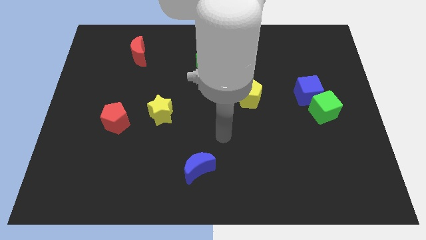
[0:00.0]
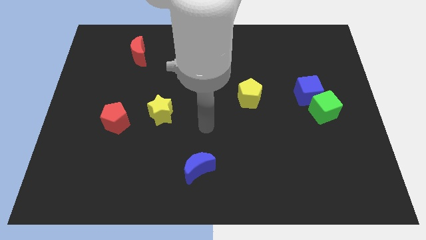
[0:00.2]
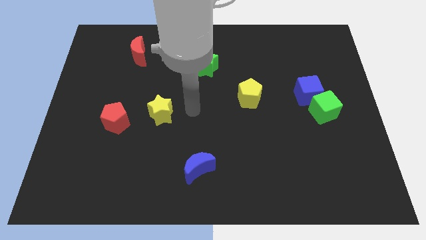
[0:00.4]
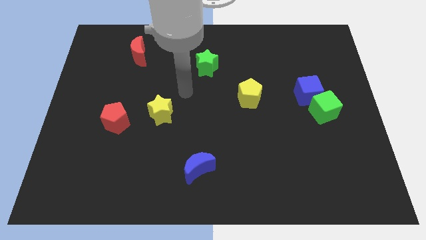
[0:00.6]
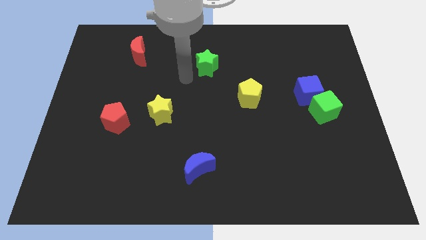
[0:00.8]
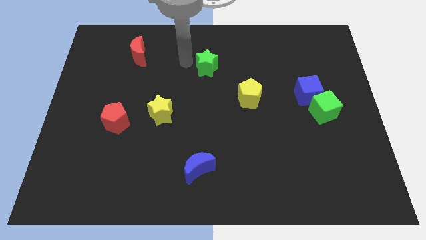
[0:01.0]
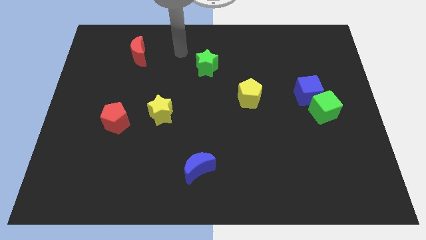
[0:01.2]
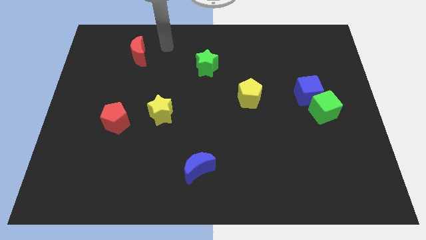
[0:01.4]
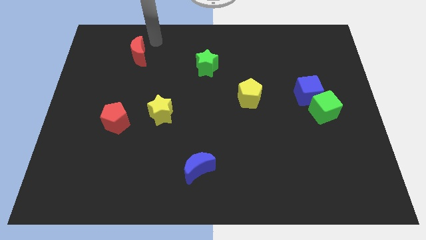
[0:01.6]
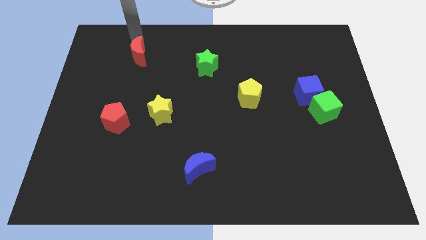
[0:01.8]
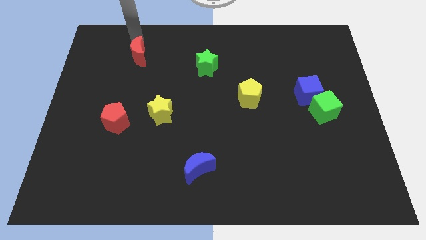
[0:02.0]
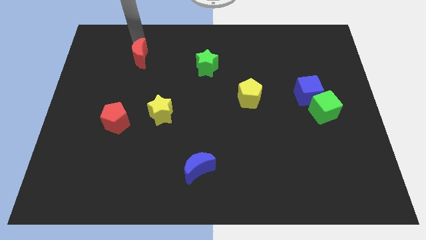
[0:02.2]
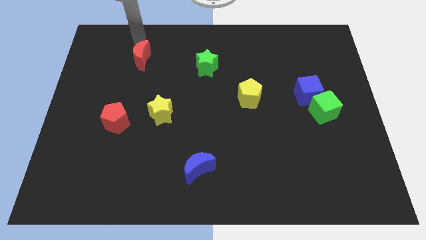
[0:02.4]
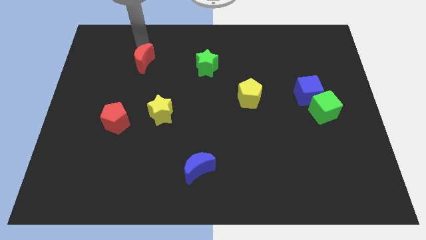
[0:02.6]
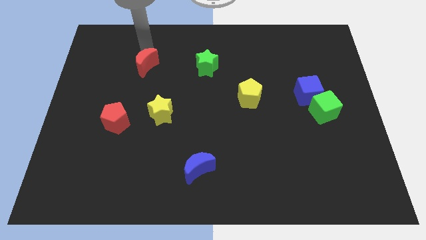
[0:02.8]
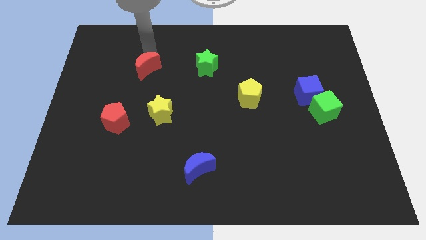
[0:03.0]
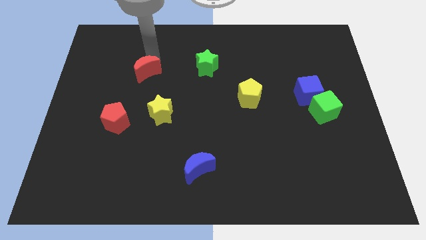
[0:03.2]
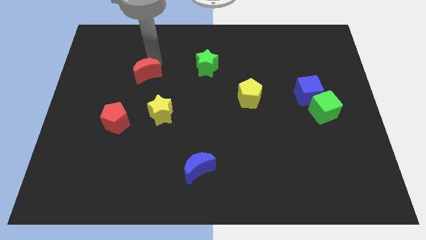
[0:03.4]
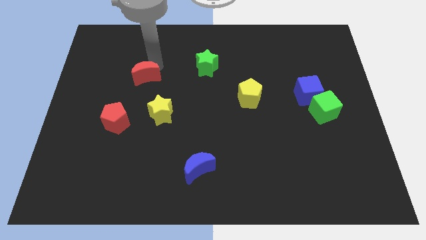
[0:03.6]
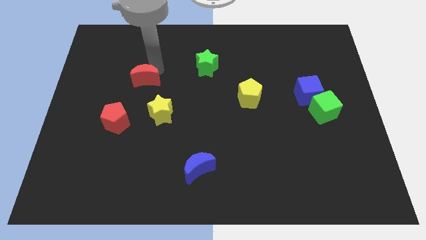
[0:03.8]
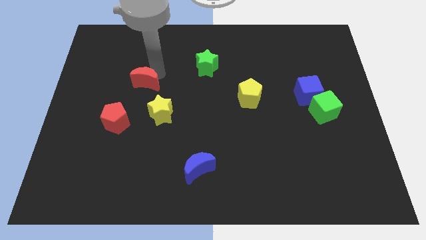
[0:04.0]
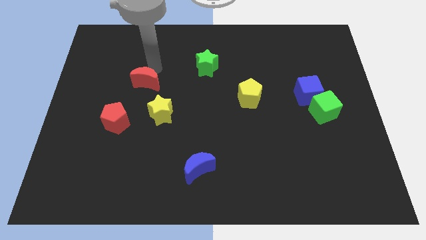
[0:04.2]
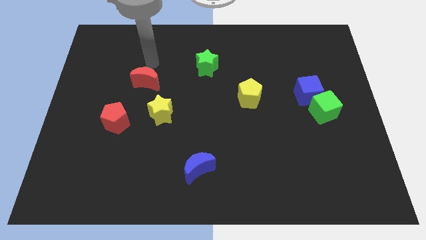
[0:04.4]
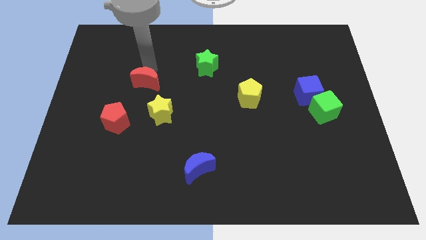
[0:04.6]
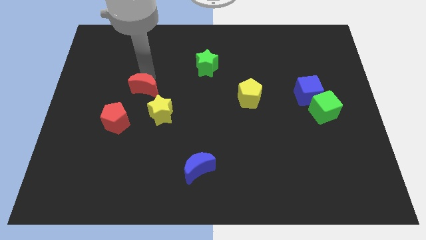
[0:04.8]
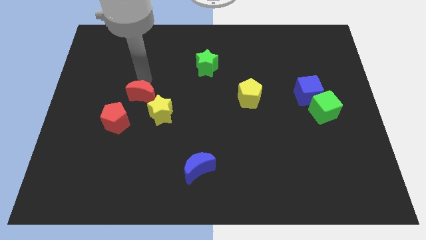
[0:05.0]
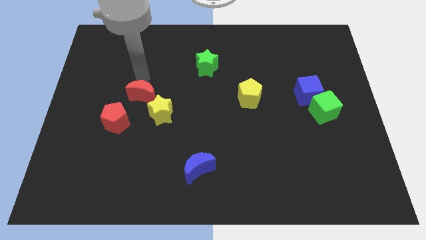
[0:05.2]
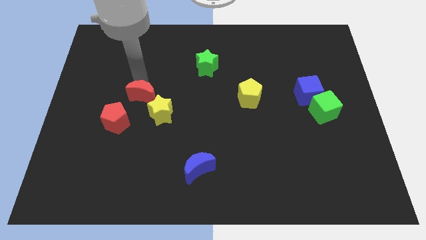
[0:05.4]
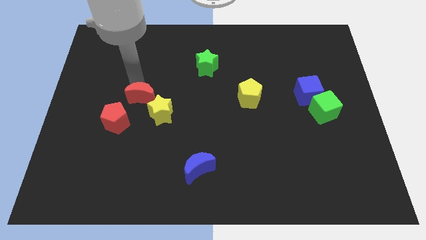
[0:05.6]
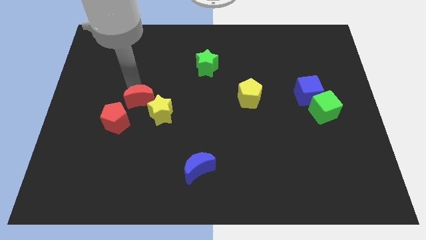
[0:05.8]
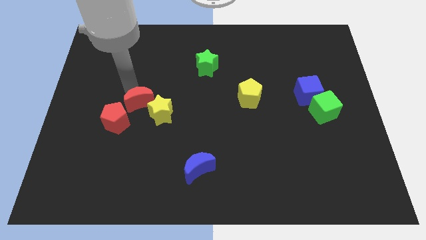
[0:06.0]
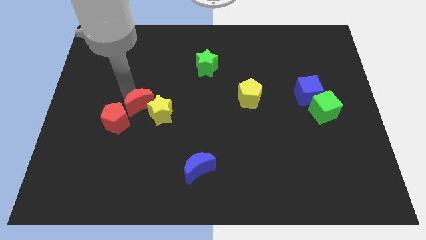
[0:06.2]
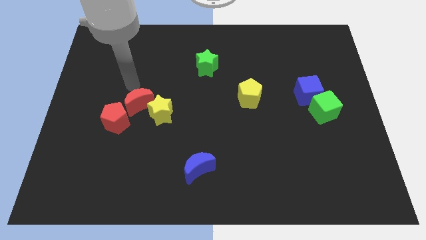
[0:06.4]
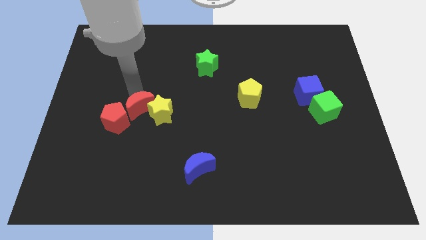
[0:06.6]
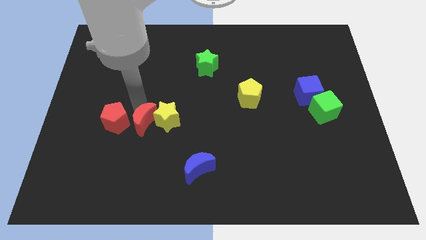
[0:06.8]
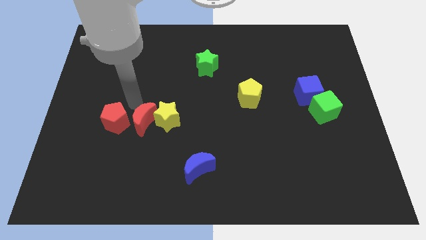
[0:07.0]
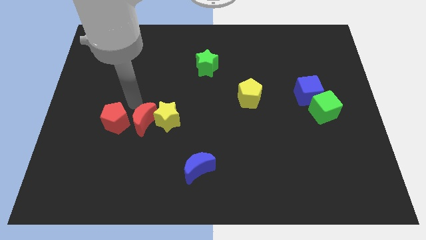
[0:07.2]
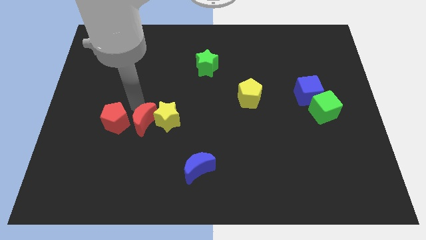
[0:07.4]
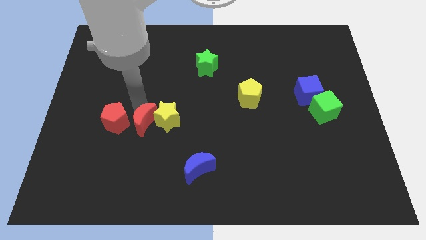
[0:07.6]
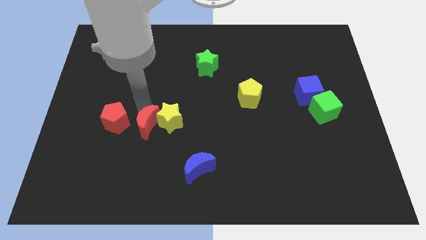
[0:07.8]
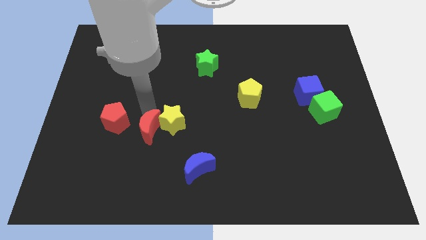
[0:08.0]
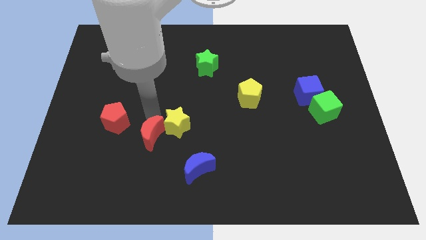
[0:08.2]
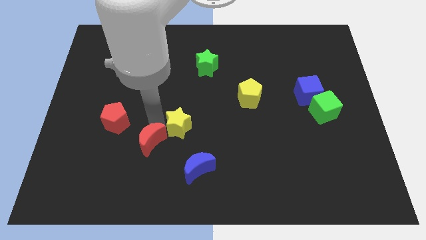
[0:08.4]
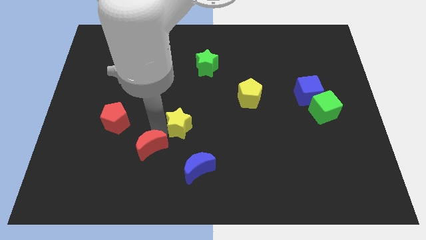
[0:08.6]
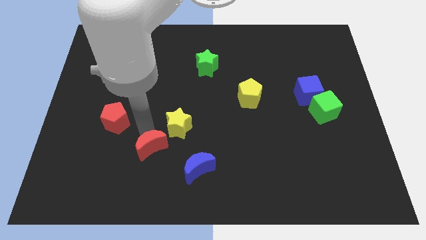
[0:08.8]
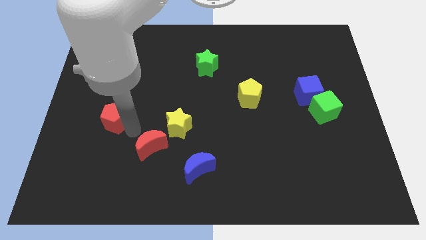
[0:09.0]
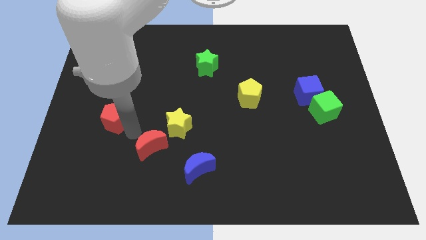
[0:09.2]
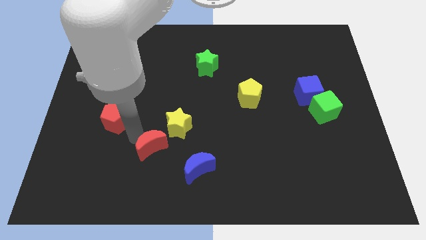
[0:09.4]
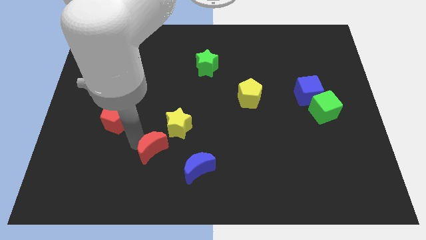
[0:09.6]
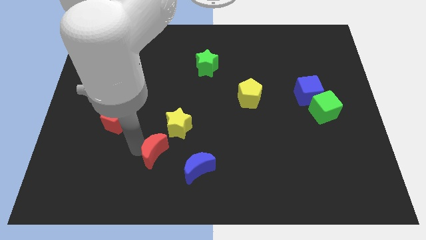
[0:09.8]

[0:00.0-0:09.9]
move the red moon below the yellow star

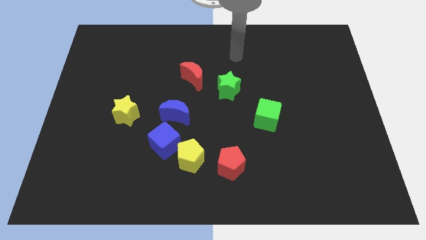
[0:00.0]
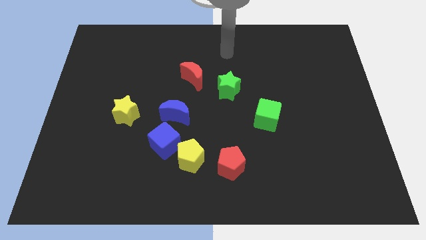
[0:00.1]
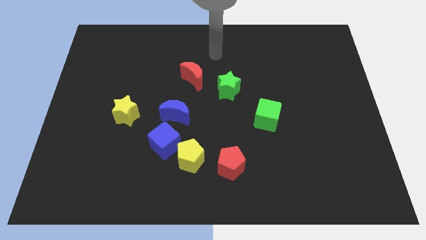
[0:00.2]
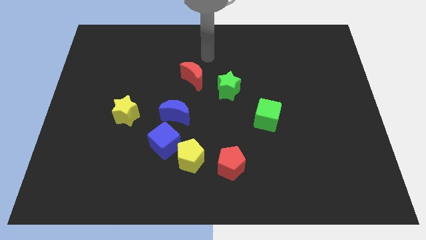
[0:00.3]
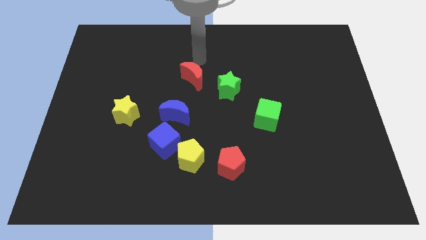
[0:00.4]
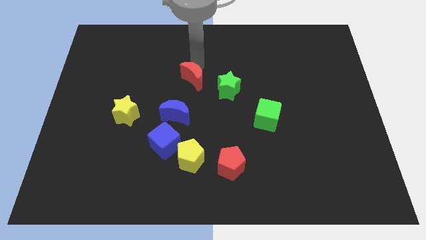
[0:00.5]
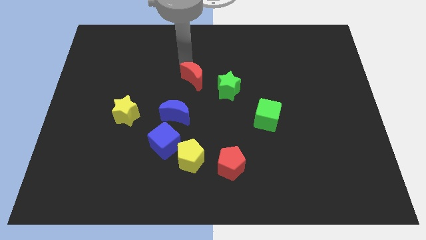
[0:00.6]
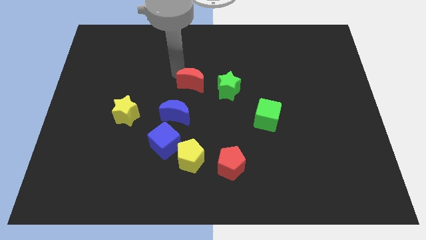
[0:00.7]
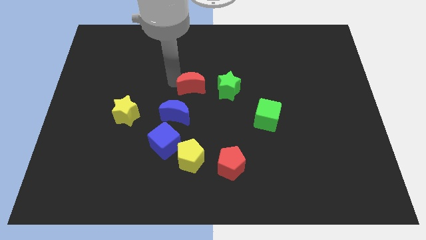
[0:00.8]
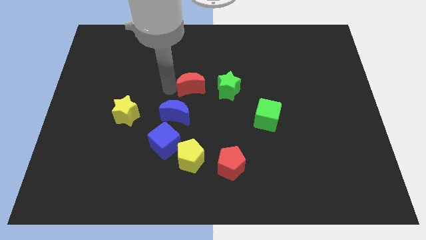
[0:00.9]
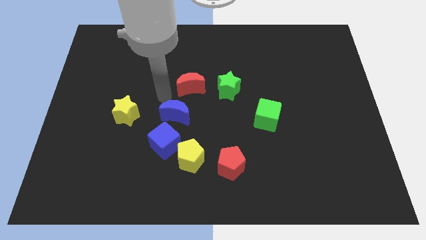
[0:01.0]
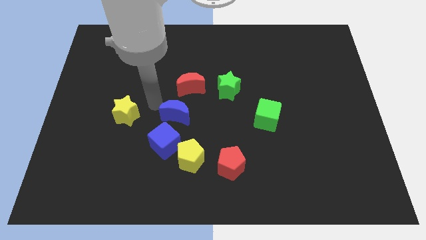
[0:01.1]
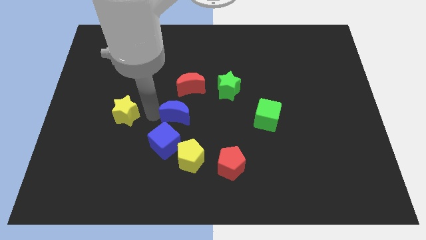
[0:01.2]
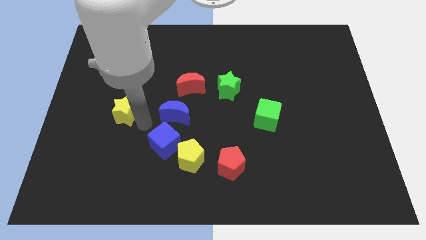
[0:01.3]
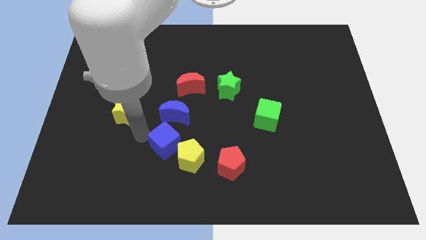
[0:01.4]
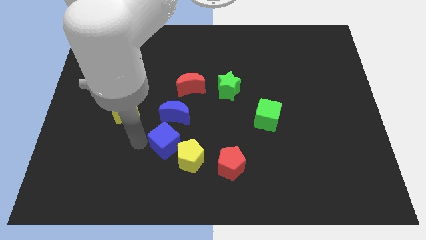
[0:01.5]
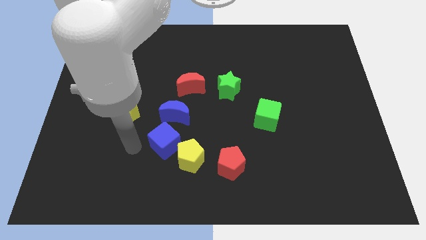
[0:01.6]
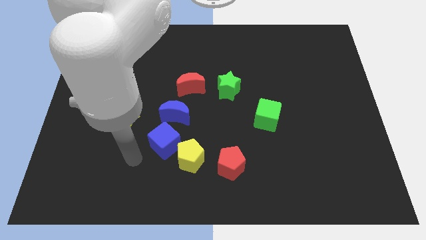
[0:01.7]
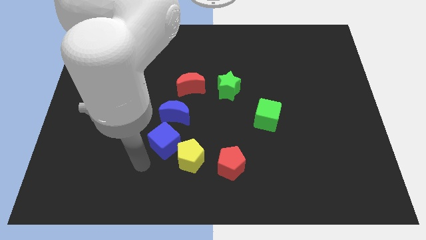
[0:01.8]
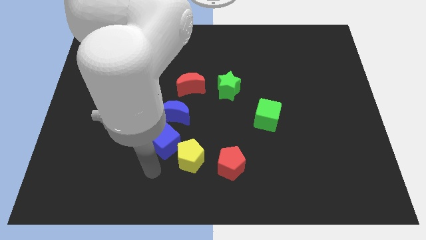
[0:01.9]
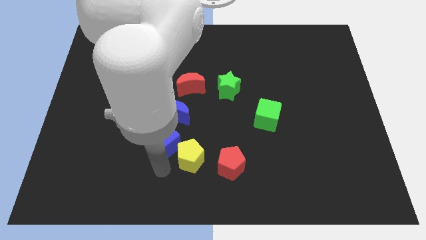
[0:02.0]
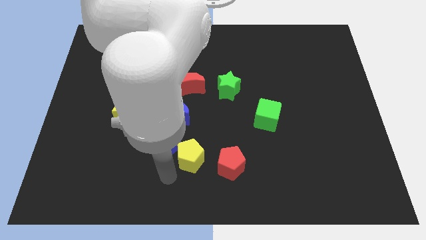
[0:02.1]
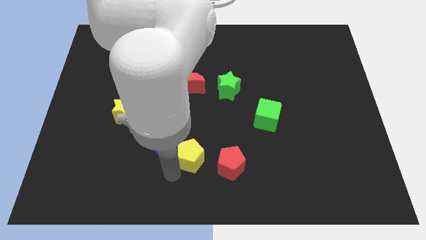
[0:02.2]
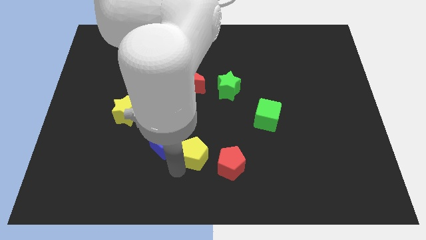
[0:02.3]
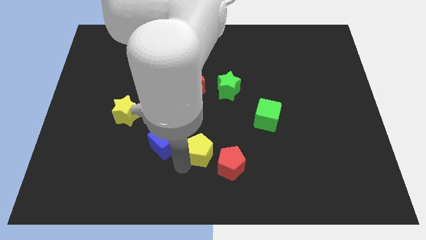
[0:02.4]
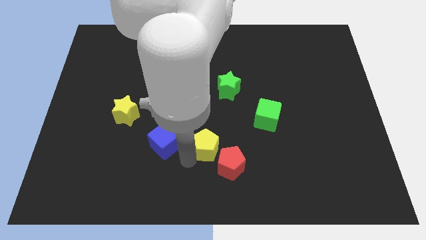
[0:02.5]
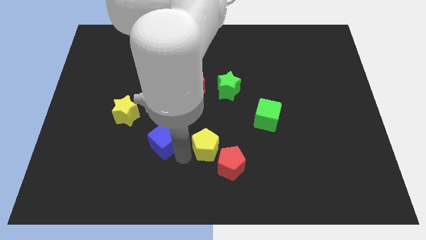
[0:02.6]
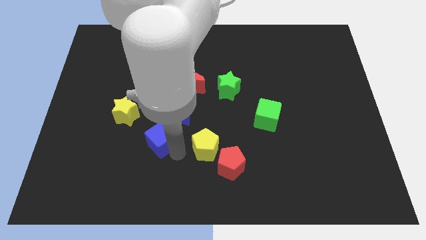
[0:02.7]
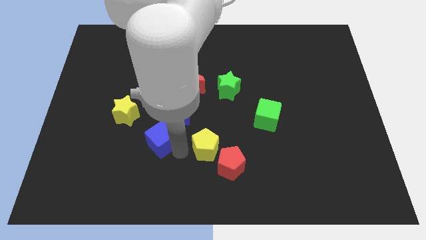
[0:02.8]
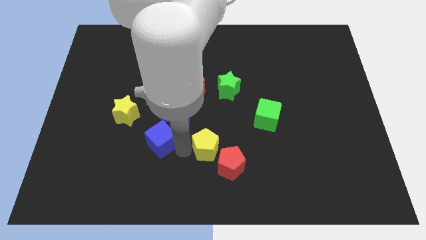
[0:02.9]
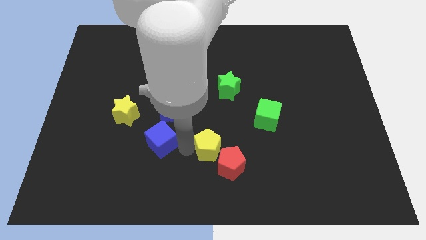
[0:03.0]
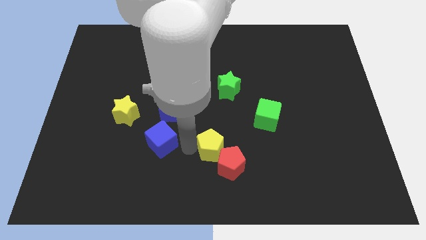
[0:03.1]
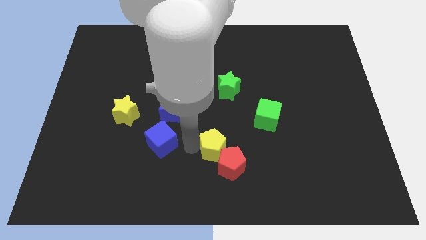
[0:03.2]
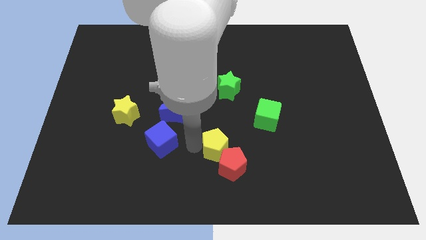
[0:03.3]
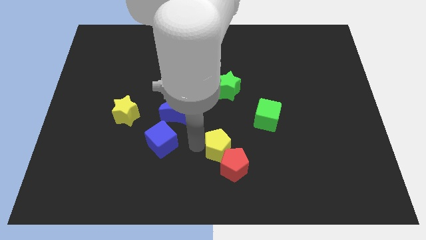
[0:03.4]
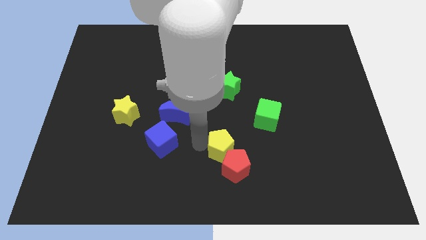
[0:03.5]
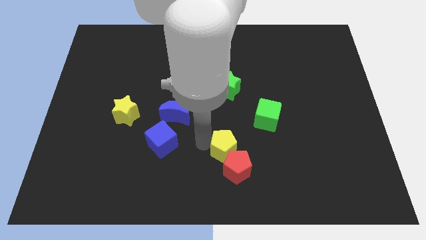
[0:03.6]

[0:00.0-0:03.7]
put the yellow pentagon to the bottom left side of the green cube
